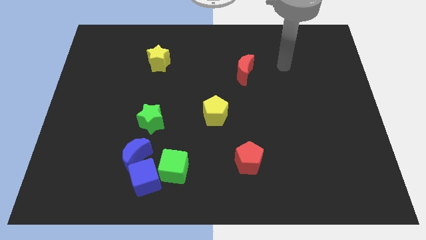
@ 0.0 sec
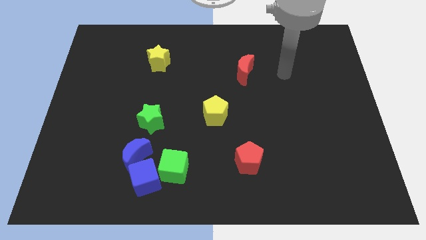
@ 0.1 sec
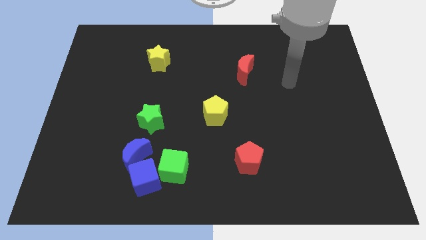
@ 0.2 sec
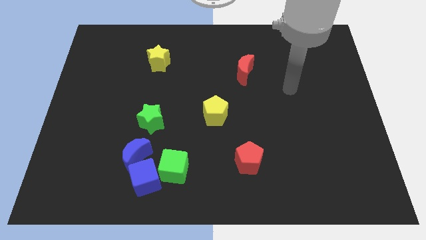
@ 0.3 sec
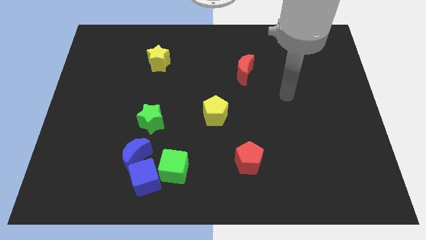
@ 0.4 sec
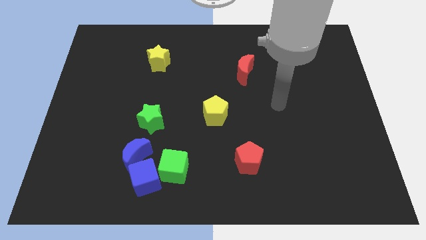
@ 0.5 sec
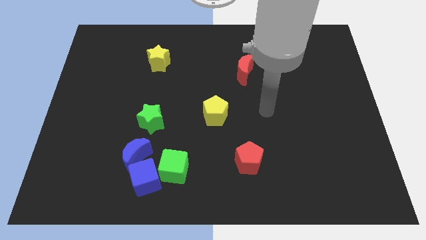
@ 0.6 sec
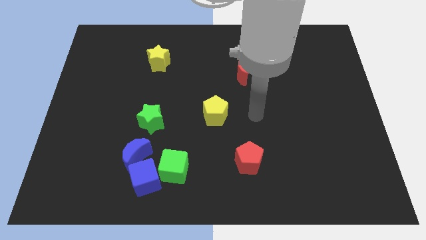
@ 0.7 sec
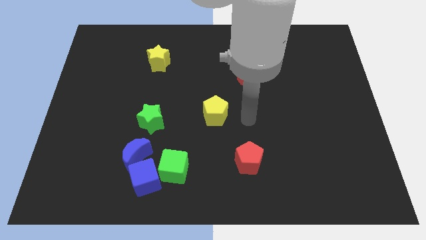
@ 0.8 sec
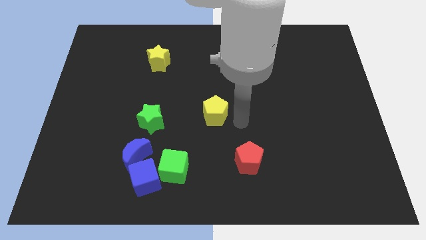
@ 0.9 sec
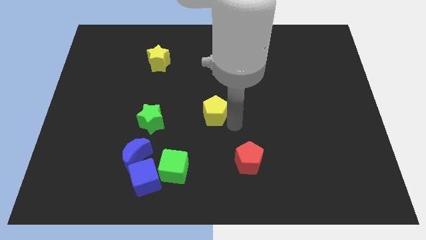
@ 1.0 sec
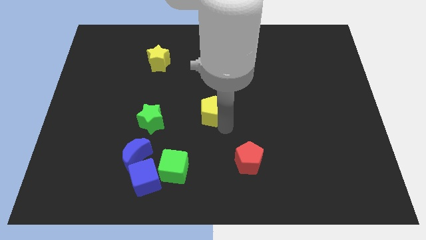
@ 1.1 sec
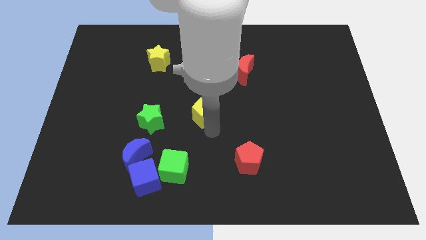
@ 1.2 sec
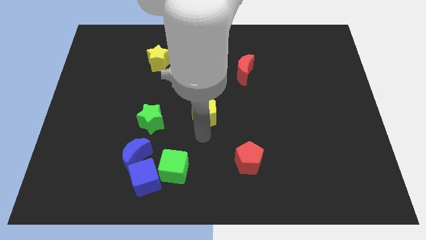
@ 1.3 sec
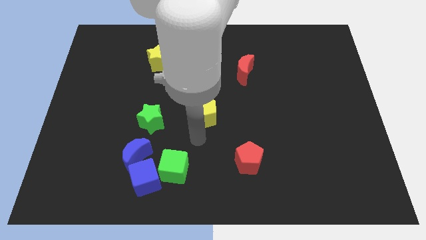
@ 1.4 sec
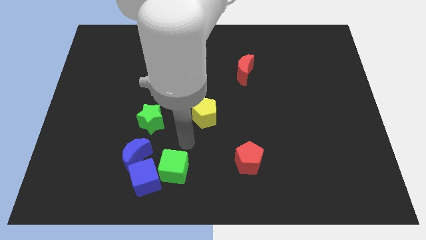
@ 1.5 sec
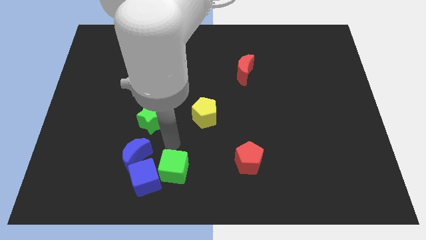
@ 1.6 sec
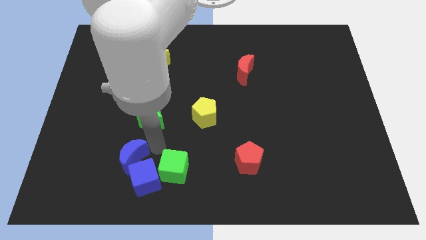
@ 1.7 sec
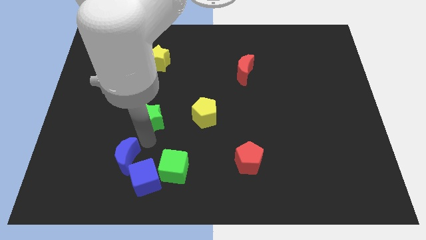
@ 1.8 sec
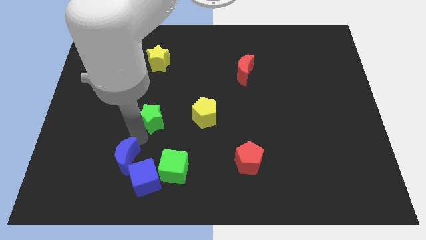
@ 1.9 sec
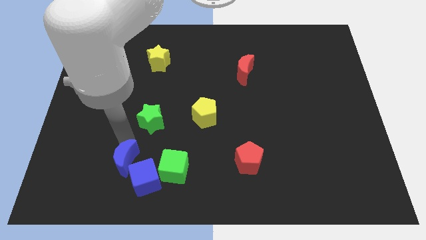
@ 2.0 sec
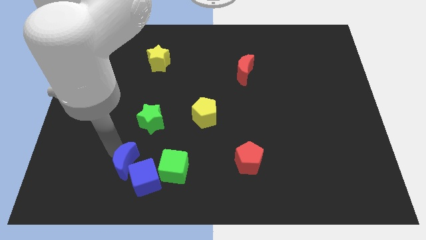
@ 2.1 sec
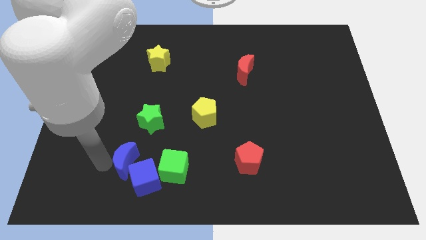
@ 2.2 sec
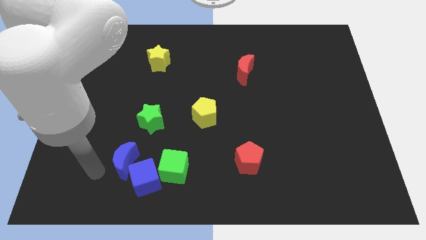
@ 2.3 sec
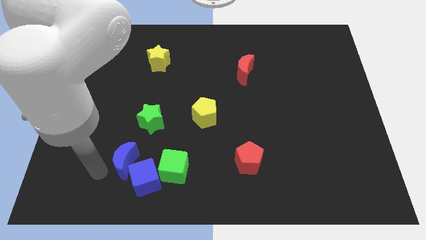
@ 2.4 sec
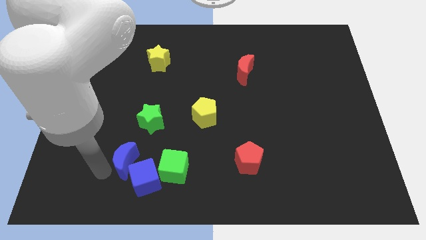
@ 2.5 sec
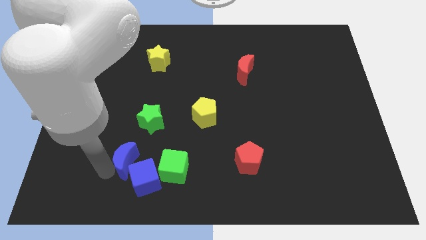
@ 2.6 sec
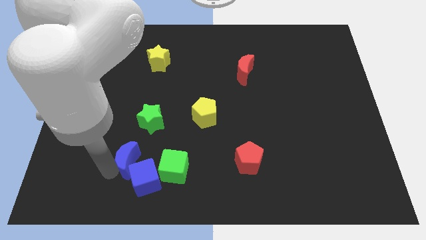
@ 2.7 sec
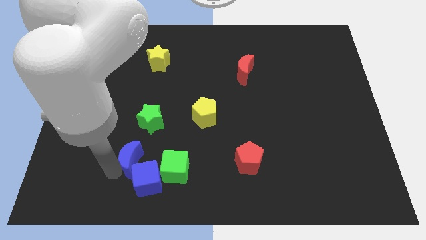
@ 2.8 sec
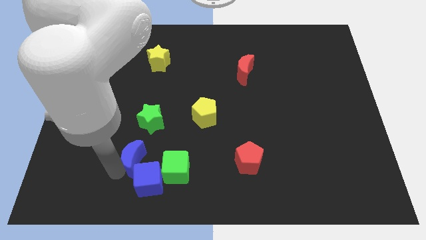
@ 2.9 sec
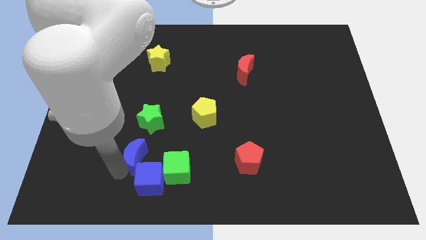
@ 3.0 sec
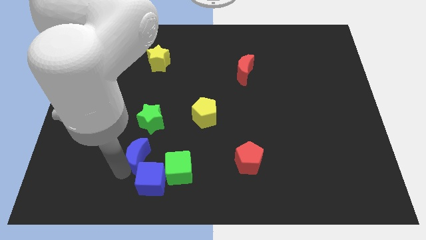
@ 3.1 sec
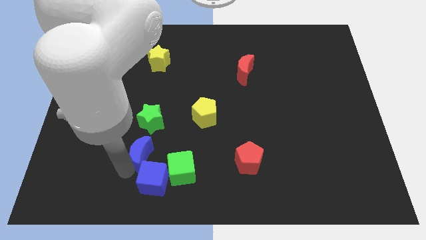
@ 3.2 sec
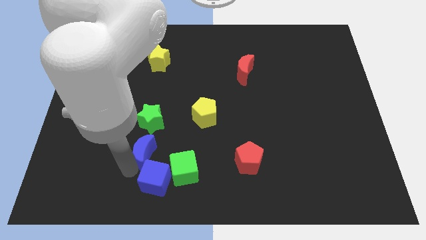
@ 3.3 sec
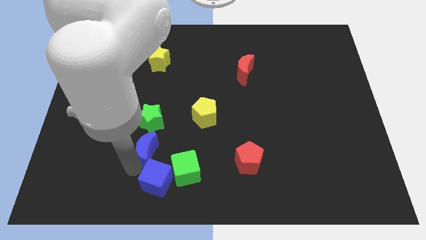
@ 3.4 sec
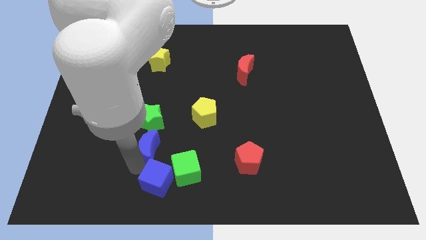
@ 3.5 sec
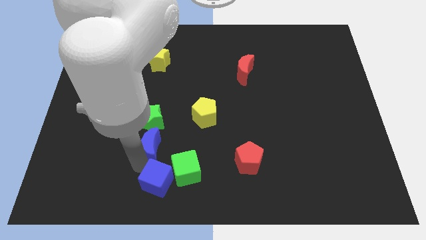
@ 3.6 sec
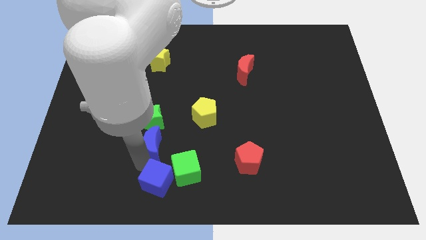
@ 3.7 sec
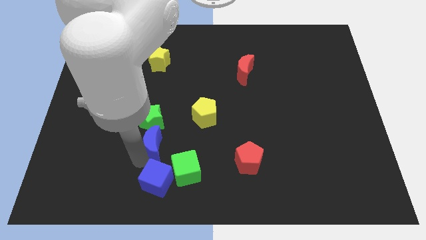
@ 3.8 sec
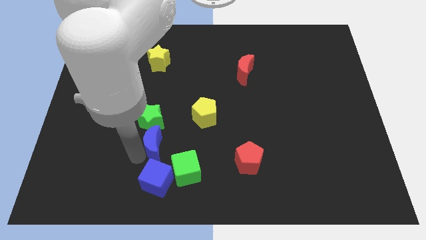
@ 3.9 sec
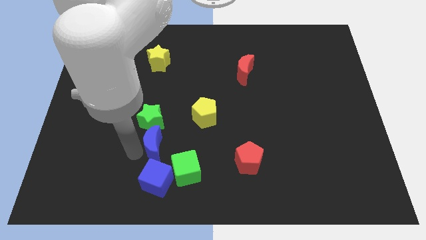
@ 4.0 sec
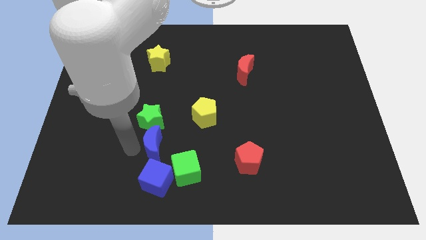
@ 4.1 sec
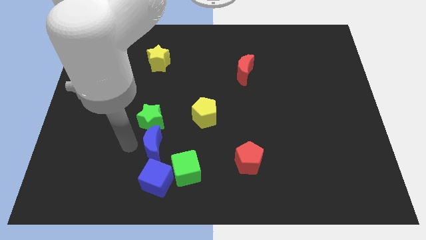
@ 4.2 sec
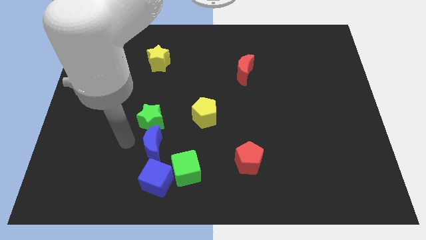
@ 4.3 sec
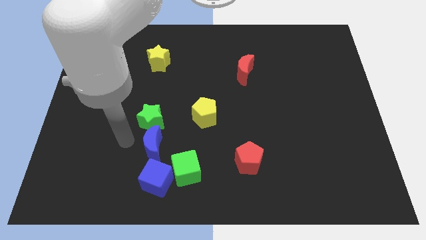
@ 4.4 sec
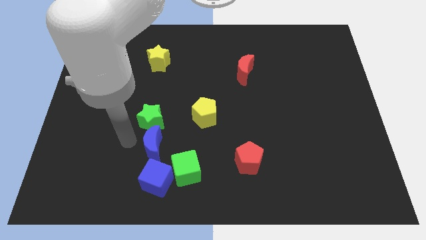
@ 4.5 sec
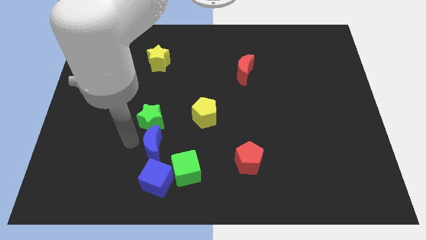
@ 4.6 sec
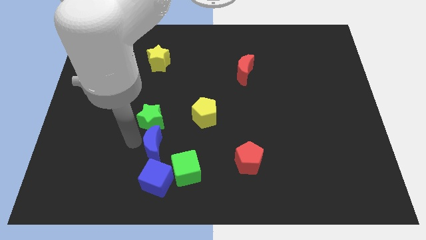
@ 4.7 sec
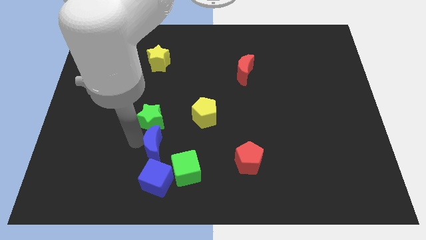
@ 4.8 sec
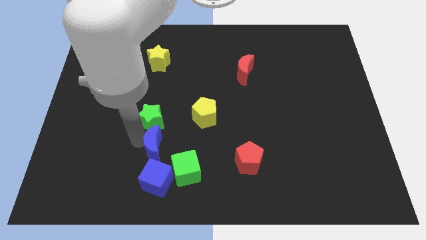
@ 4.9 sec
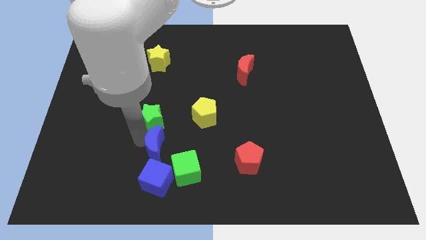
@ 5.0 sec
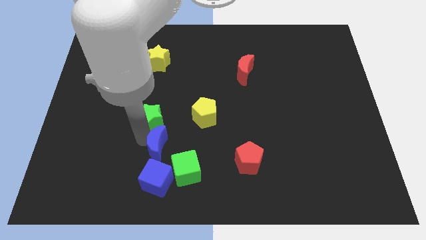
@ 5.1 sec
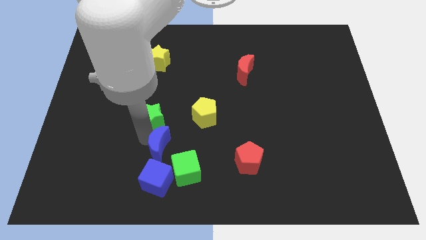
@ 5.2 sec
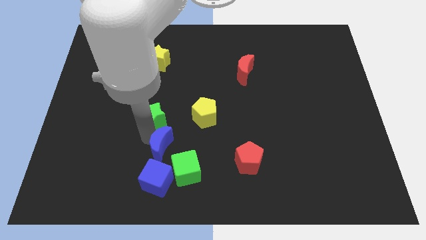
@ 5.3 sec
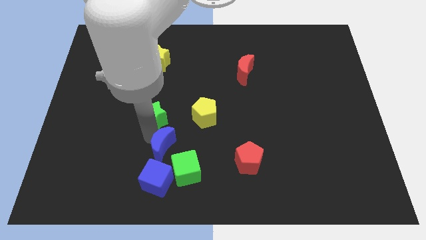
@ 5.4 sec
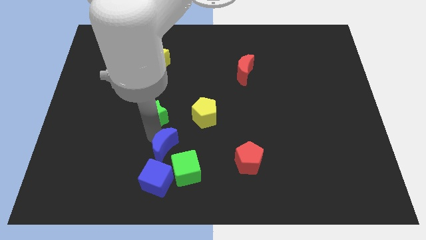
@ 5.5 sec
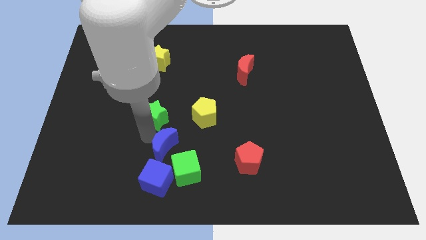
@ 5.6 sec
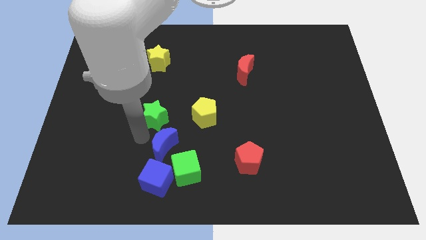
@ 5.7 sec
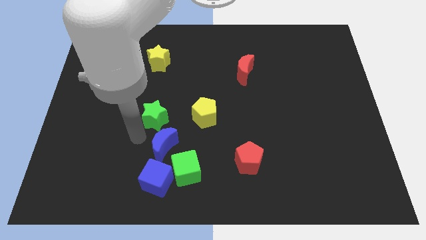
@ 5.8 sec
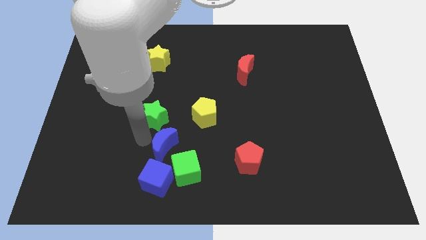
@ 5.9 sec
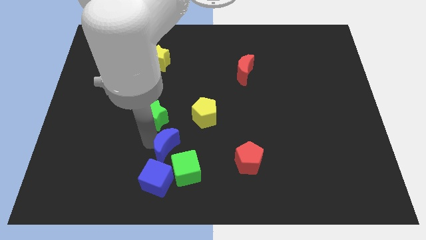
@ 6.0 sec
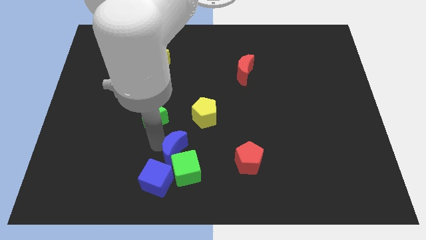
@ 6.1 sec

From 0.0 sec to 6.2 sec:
push the blue moon right a little bit

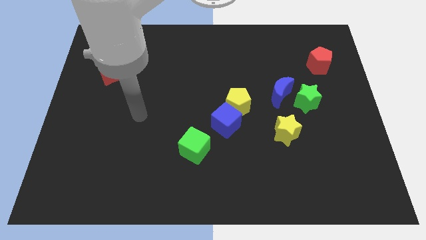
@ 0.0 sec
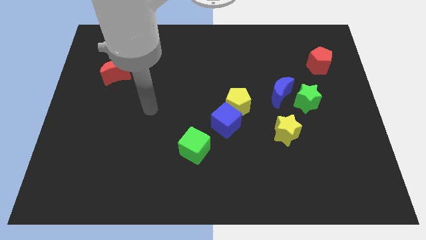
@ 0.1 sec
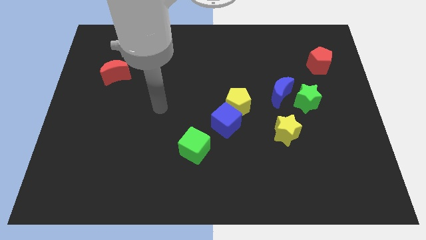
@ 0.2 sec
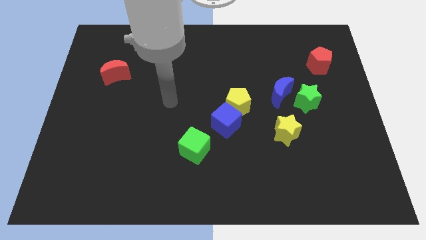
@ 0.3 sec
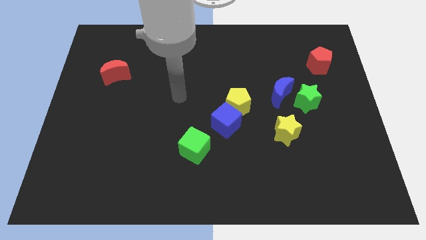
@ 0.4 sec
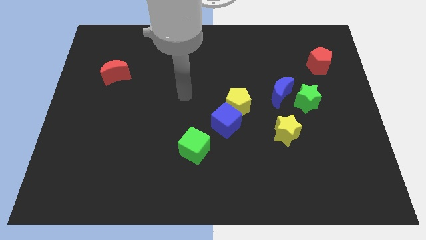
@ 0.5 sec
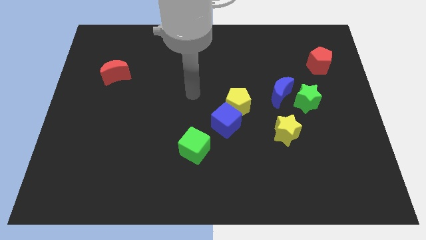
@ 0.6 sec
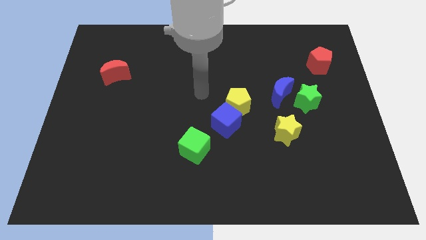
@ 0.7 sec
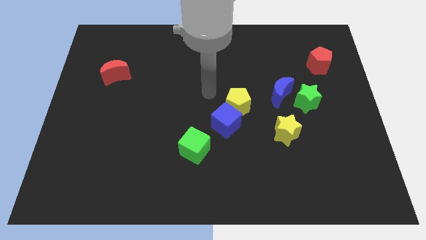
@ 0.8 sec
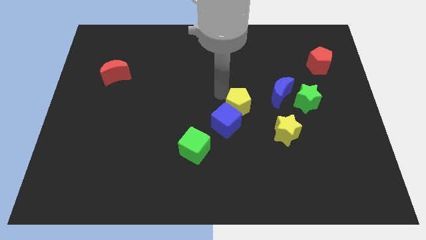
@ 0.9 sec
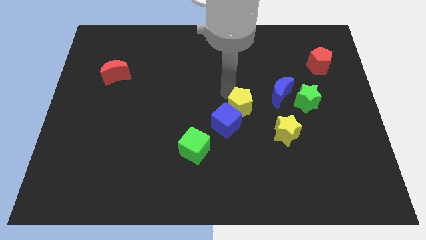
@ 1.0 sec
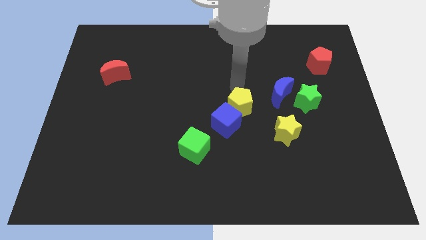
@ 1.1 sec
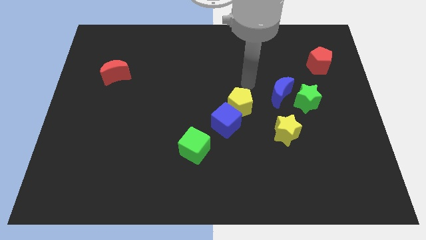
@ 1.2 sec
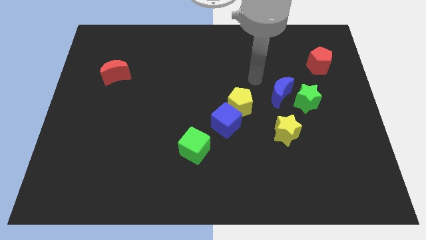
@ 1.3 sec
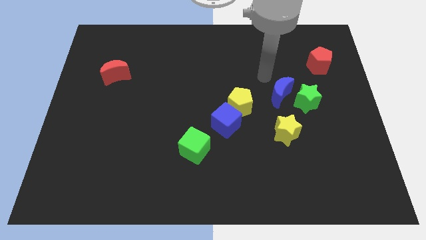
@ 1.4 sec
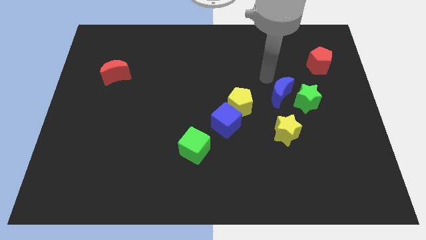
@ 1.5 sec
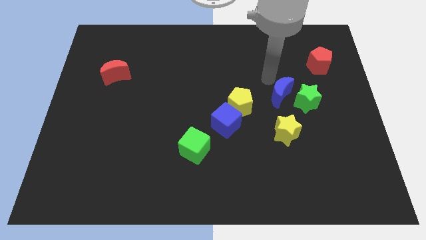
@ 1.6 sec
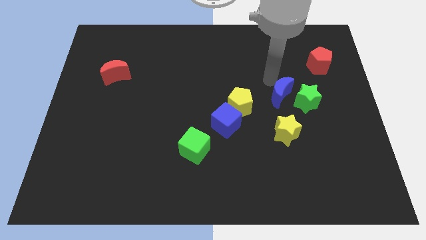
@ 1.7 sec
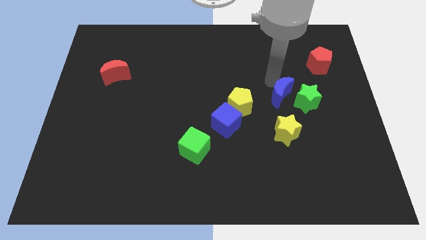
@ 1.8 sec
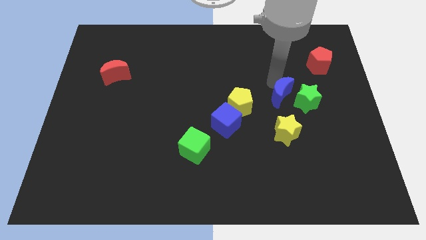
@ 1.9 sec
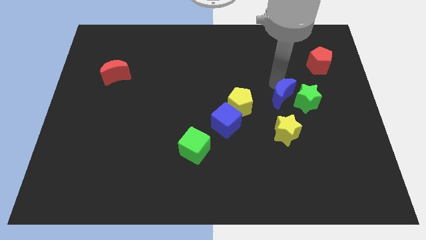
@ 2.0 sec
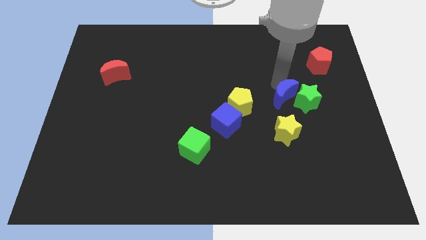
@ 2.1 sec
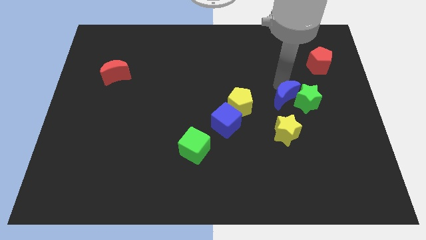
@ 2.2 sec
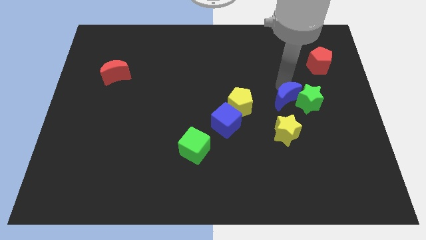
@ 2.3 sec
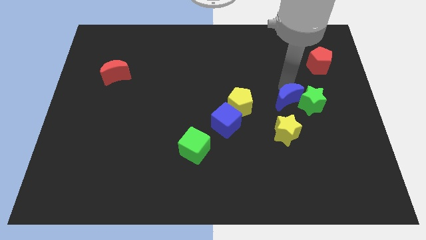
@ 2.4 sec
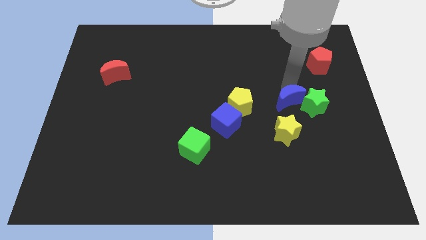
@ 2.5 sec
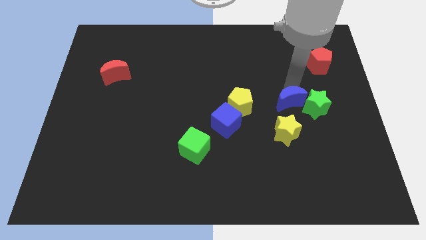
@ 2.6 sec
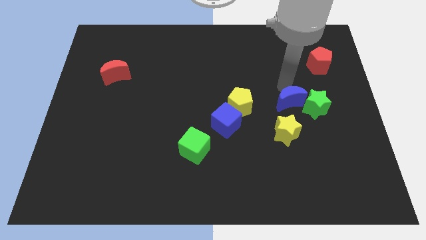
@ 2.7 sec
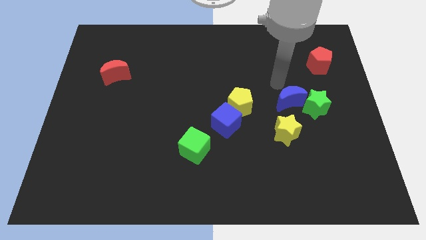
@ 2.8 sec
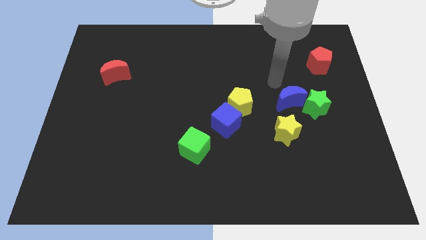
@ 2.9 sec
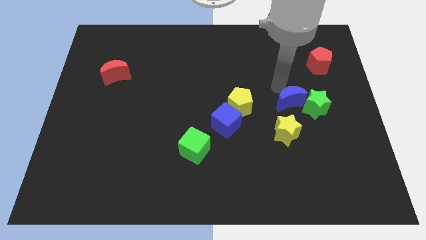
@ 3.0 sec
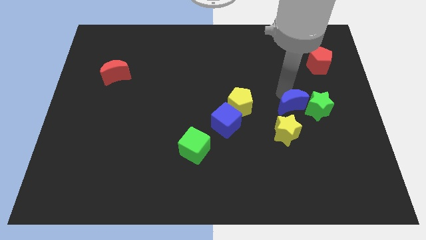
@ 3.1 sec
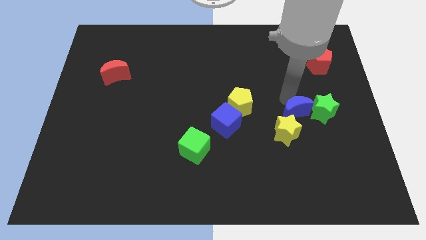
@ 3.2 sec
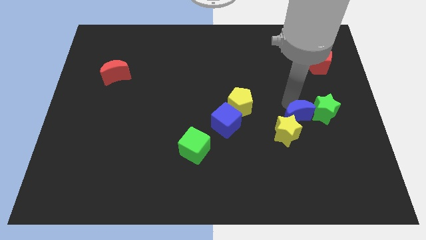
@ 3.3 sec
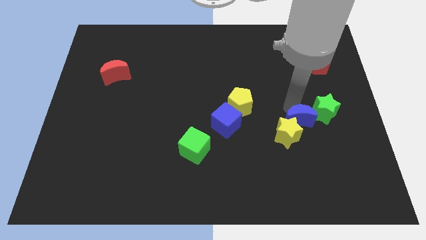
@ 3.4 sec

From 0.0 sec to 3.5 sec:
push the blue moon downwards a little
